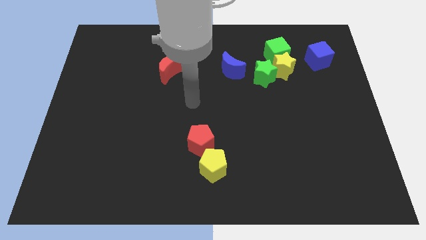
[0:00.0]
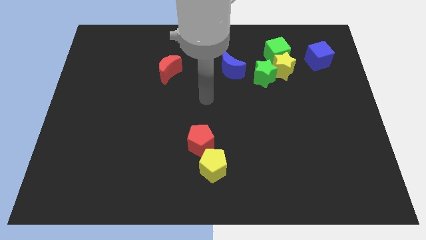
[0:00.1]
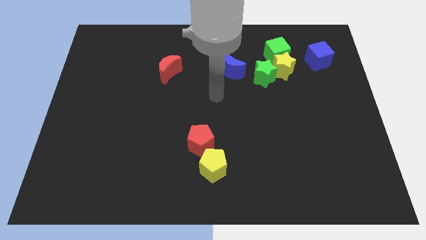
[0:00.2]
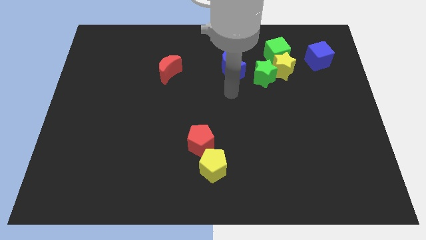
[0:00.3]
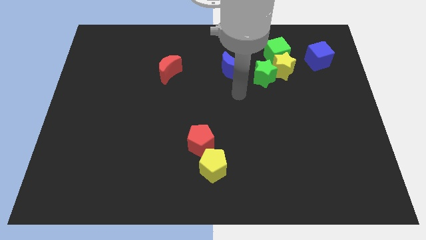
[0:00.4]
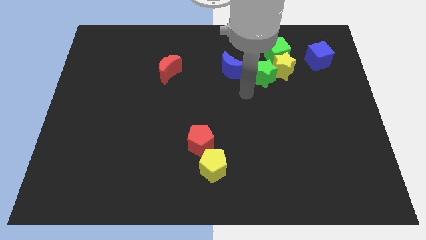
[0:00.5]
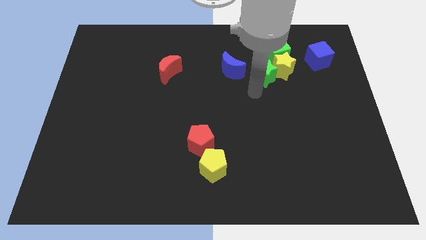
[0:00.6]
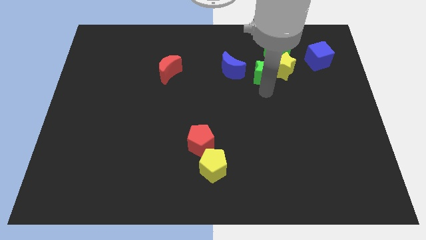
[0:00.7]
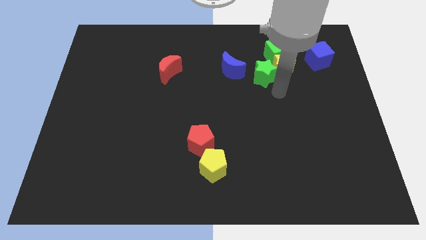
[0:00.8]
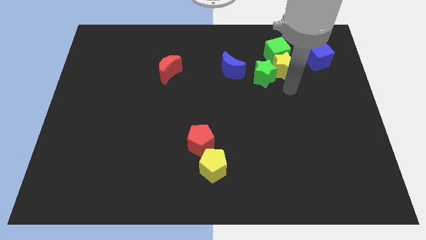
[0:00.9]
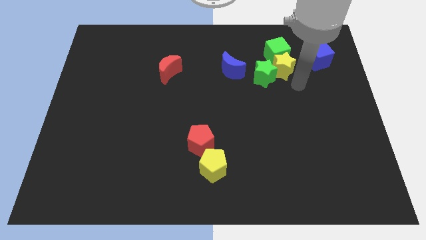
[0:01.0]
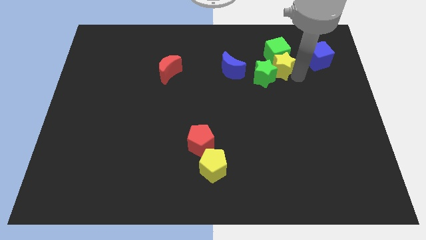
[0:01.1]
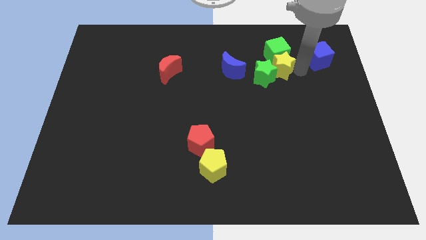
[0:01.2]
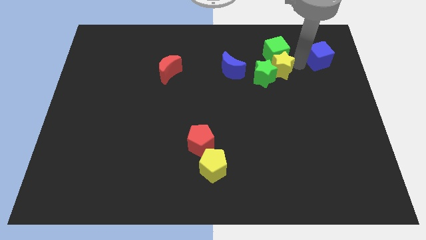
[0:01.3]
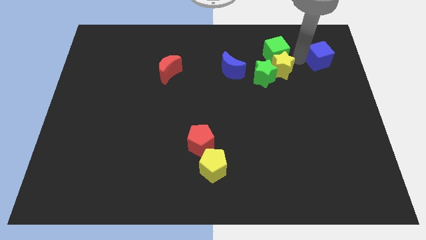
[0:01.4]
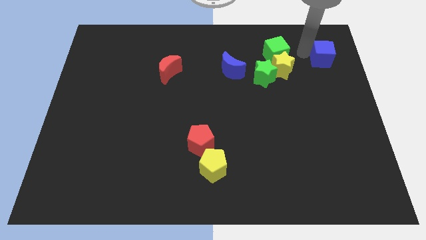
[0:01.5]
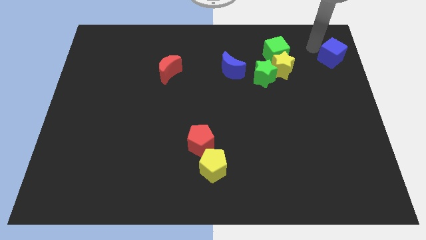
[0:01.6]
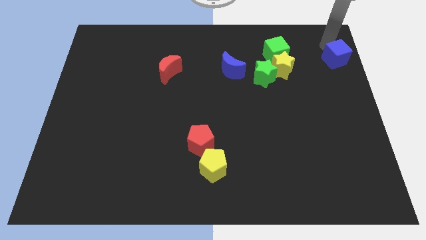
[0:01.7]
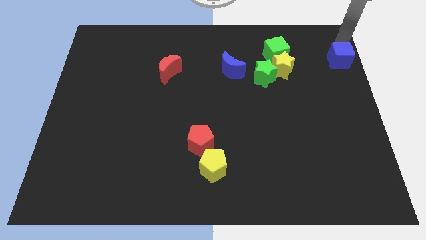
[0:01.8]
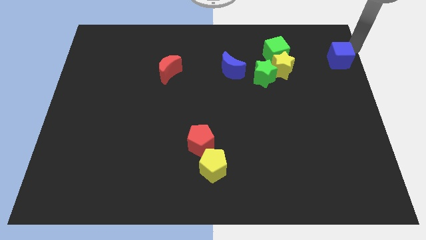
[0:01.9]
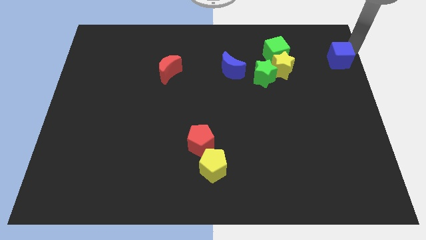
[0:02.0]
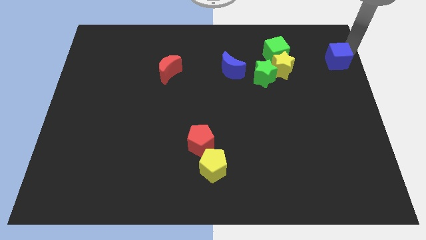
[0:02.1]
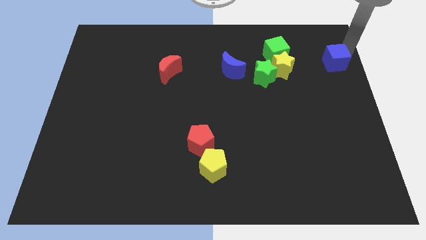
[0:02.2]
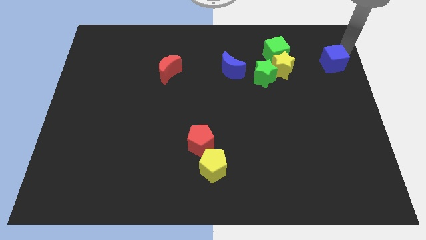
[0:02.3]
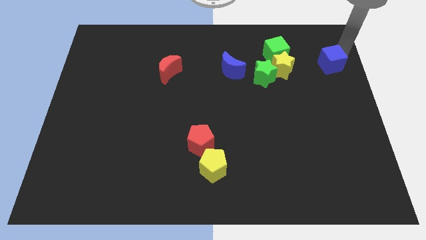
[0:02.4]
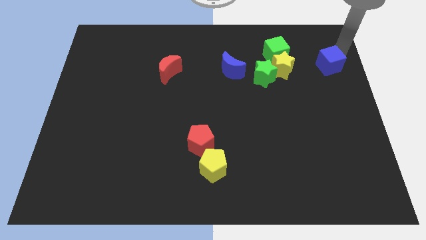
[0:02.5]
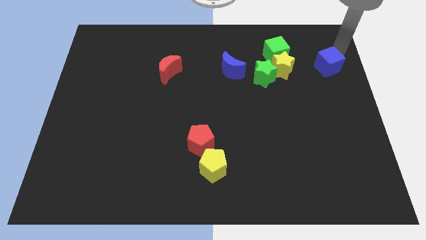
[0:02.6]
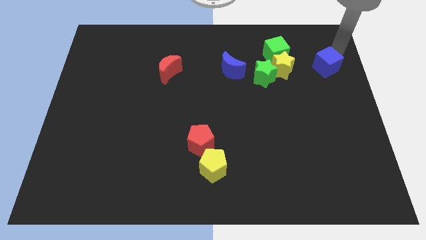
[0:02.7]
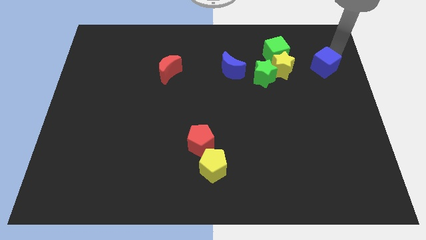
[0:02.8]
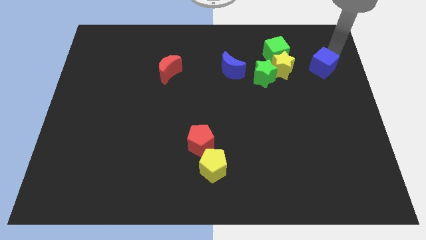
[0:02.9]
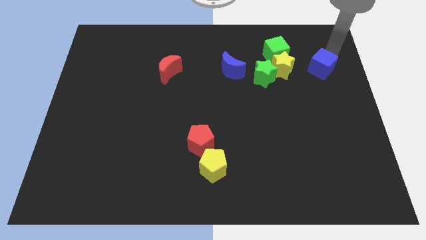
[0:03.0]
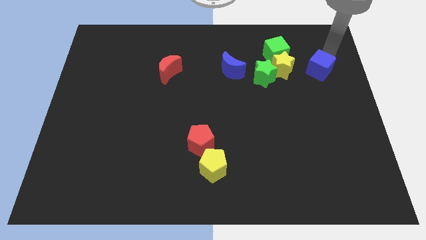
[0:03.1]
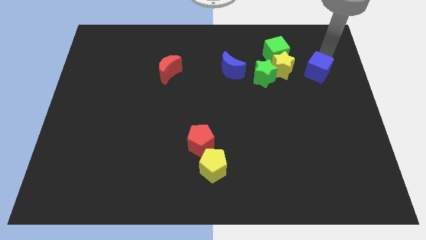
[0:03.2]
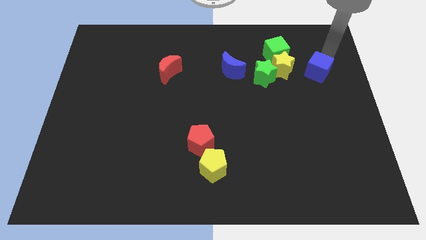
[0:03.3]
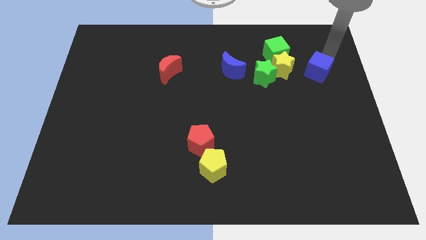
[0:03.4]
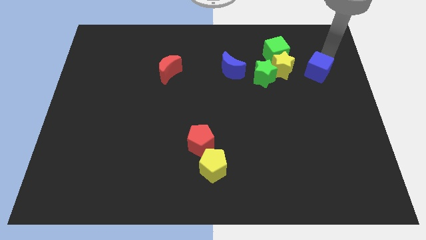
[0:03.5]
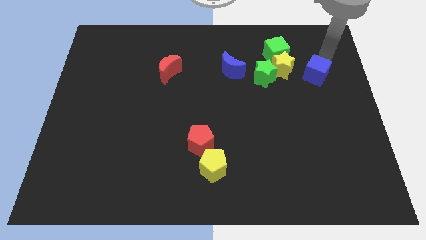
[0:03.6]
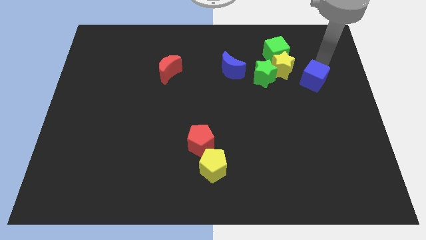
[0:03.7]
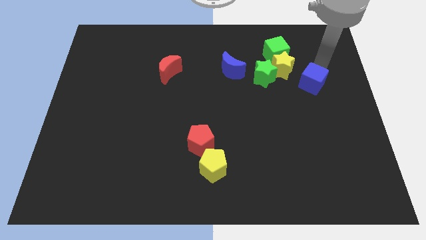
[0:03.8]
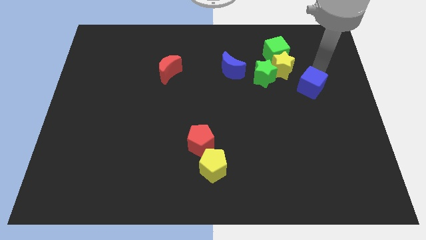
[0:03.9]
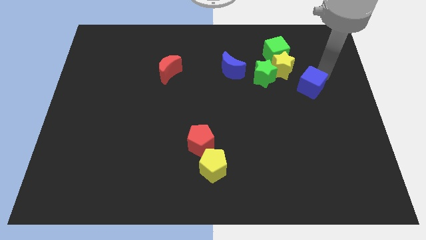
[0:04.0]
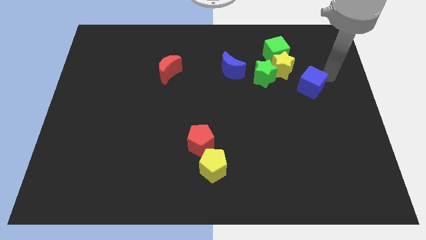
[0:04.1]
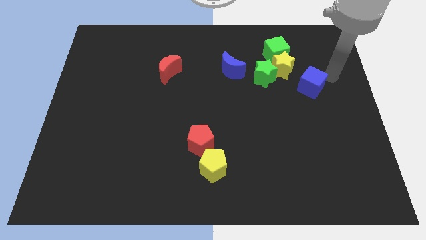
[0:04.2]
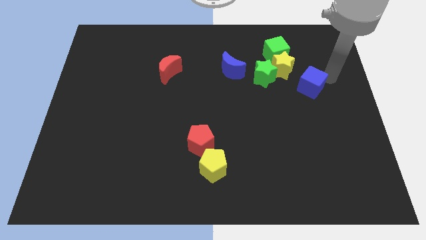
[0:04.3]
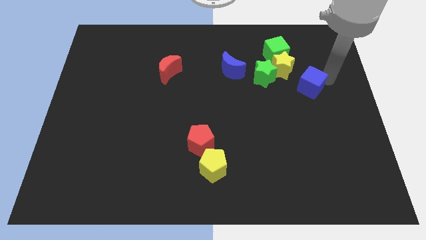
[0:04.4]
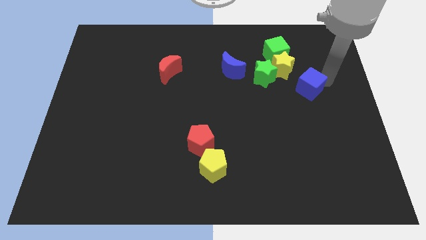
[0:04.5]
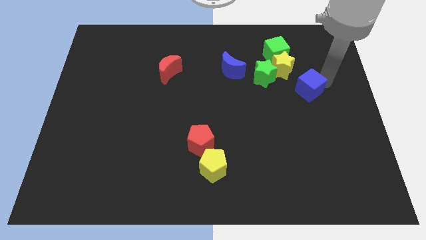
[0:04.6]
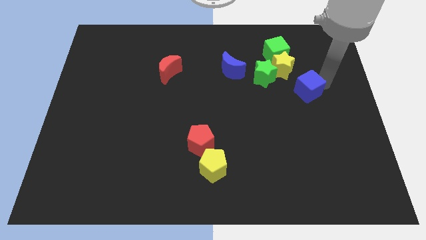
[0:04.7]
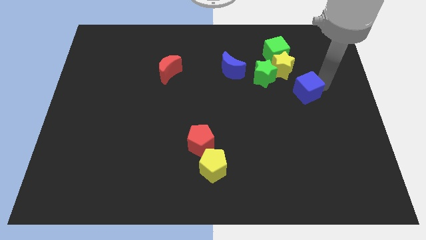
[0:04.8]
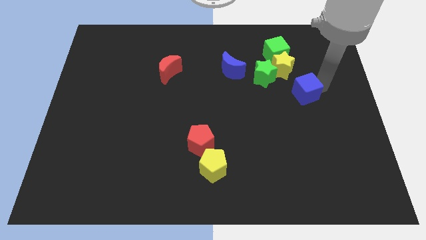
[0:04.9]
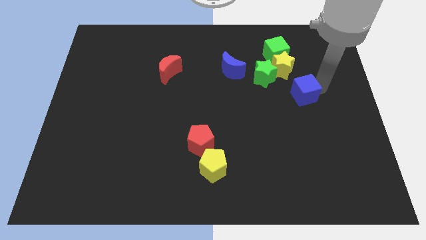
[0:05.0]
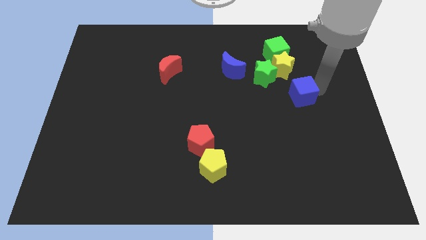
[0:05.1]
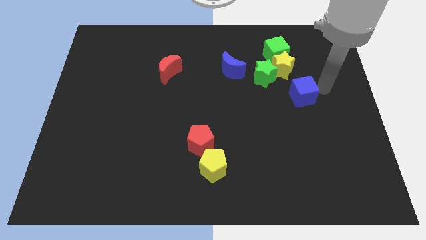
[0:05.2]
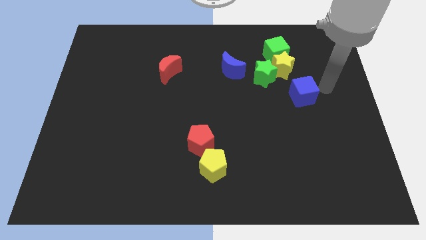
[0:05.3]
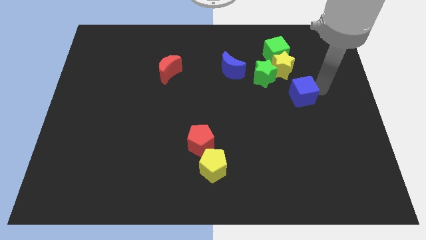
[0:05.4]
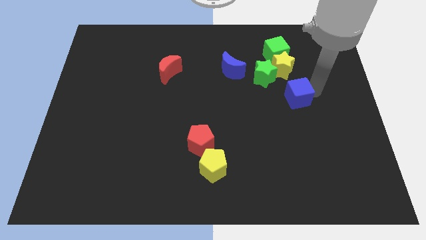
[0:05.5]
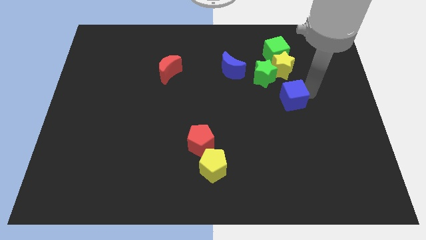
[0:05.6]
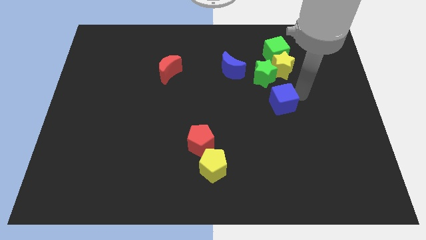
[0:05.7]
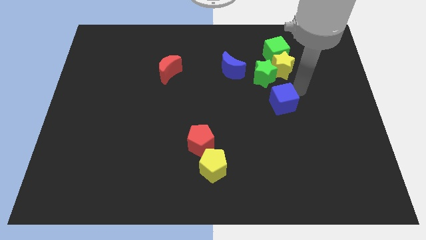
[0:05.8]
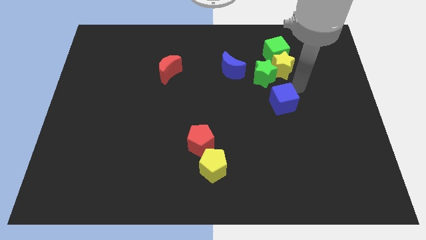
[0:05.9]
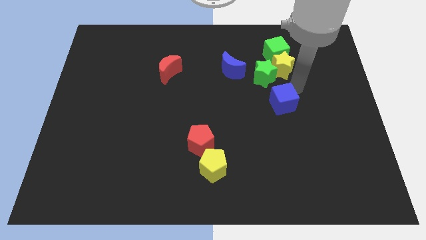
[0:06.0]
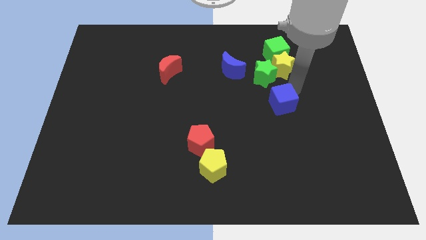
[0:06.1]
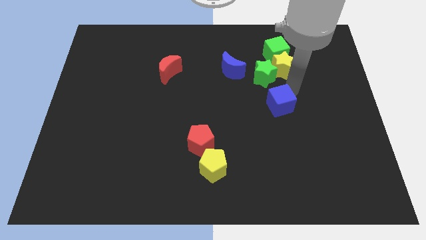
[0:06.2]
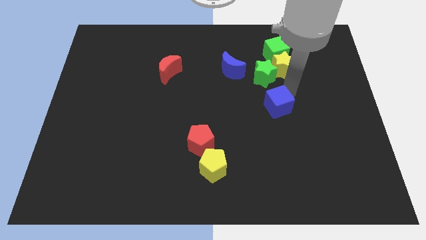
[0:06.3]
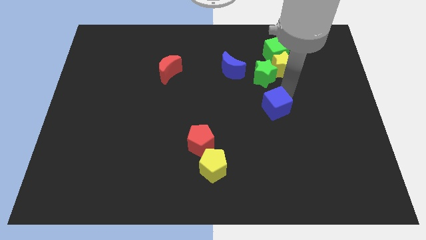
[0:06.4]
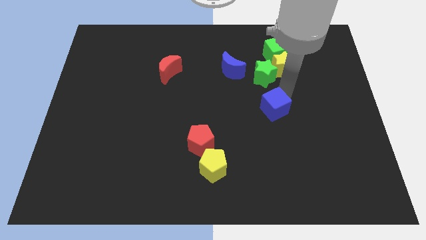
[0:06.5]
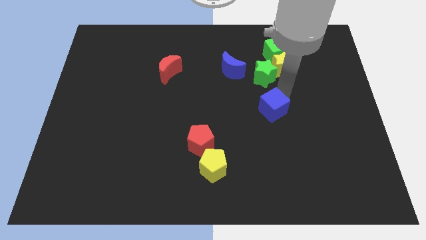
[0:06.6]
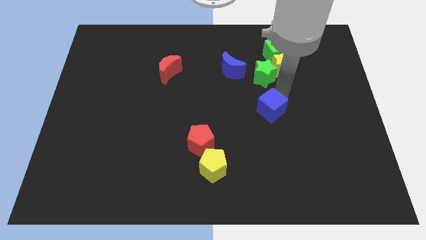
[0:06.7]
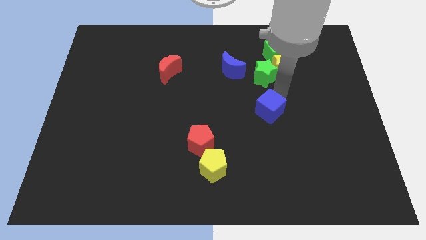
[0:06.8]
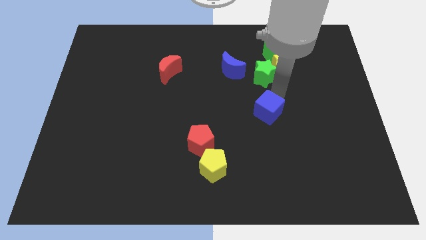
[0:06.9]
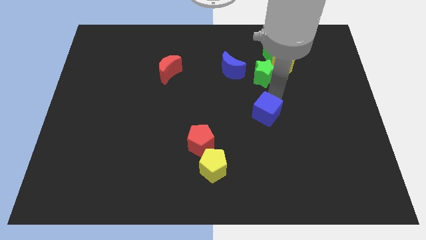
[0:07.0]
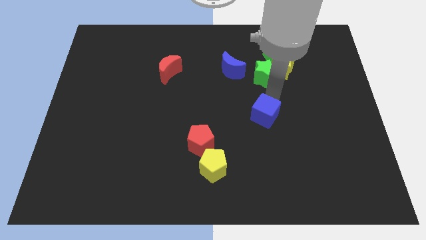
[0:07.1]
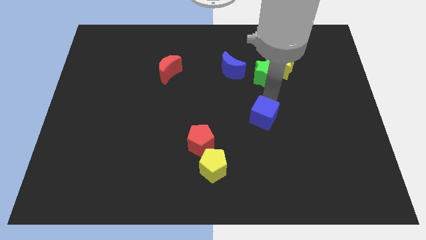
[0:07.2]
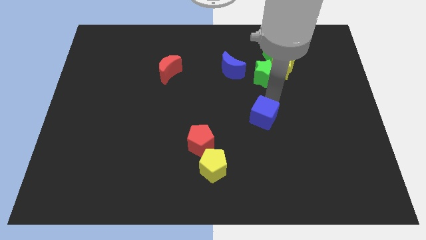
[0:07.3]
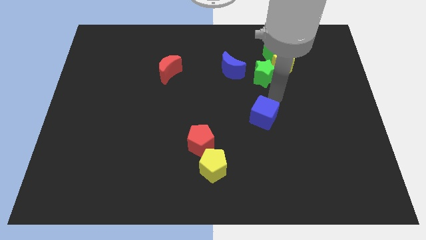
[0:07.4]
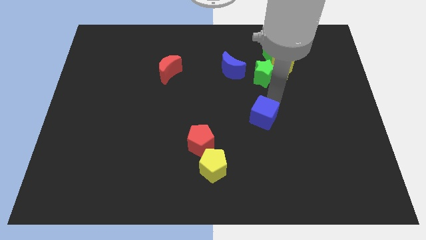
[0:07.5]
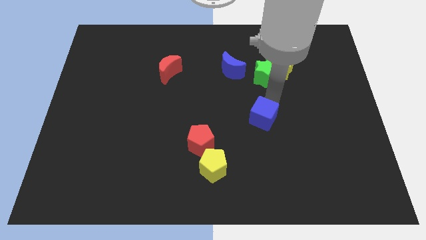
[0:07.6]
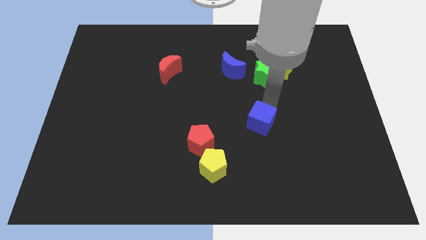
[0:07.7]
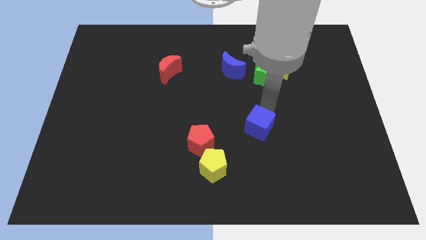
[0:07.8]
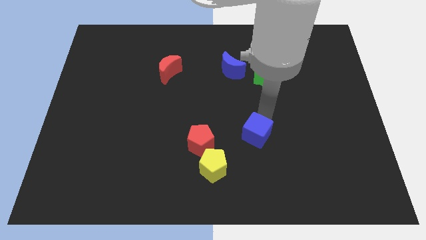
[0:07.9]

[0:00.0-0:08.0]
slide the blue cube to the top right of the yellow pentagon
